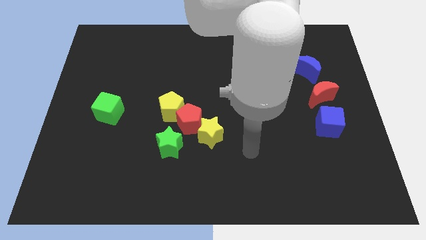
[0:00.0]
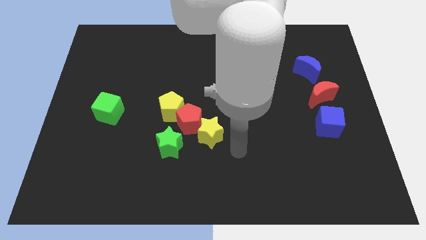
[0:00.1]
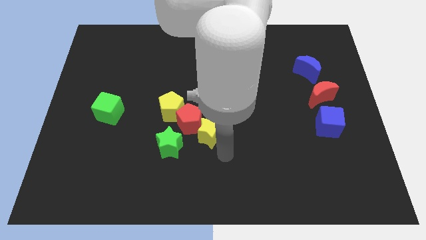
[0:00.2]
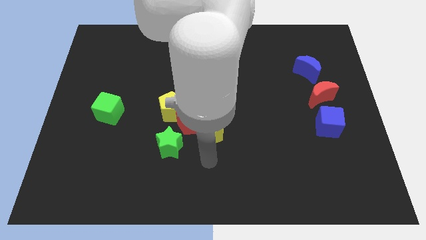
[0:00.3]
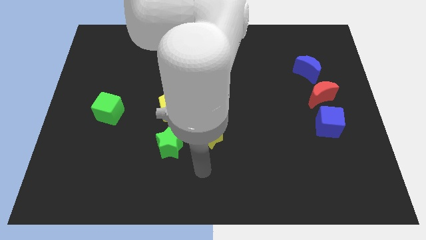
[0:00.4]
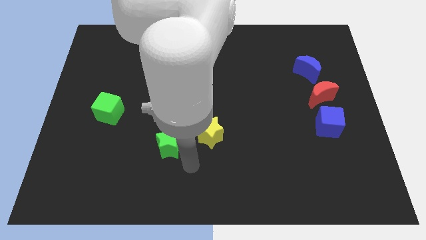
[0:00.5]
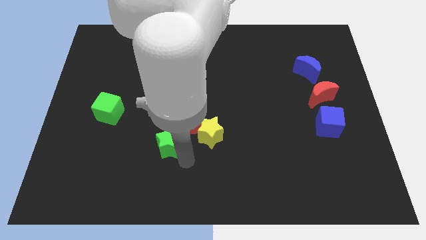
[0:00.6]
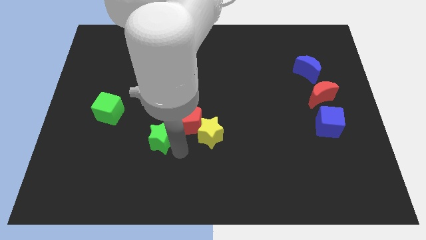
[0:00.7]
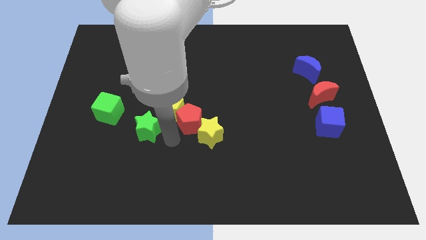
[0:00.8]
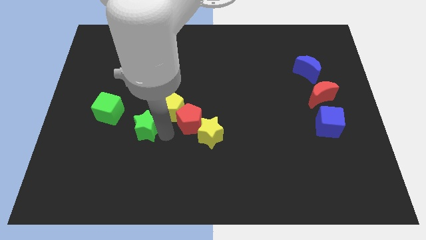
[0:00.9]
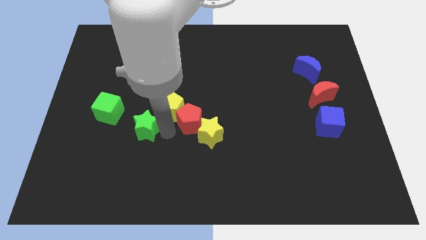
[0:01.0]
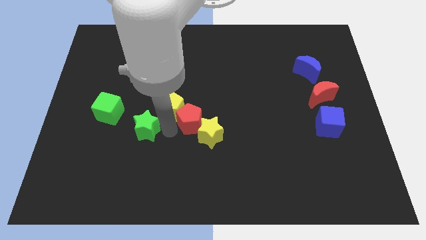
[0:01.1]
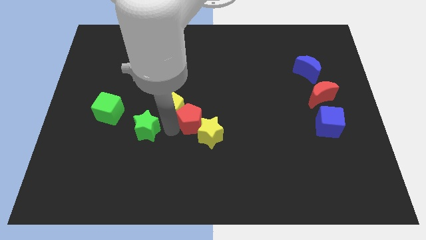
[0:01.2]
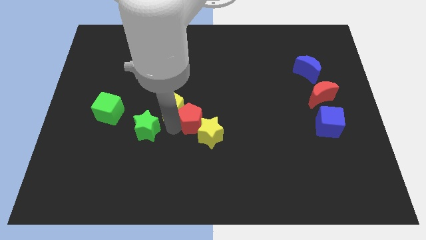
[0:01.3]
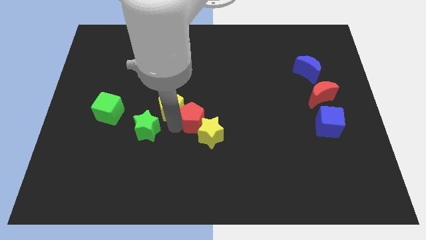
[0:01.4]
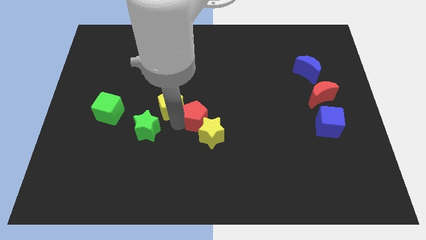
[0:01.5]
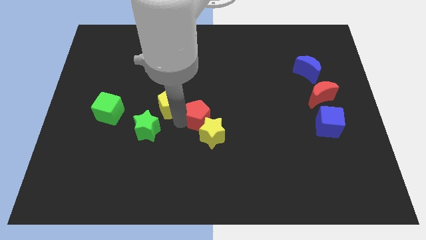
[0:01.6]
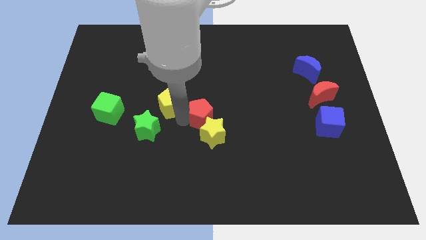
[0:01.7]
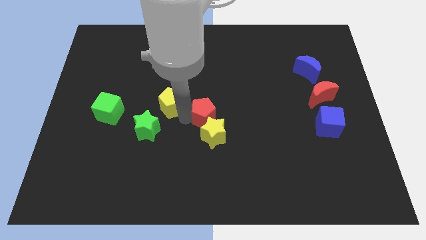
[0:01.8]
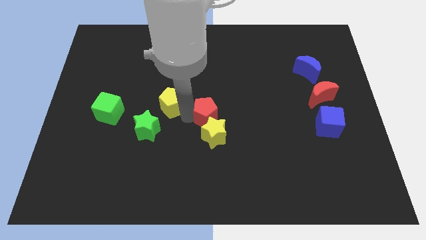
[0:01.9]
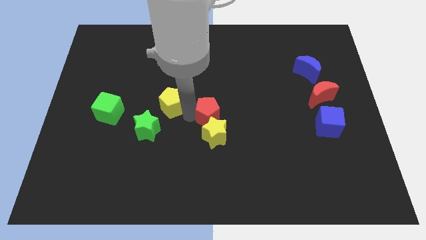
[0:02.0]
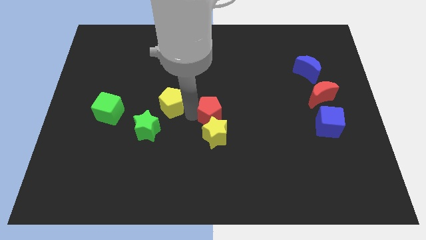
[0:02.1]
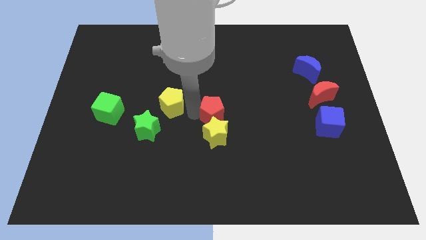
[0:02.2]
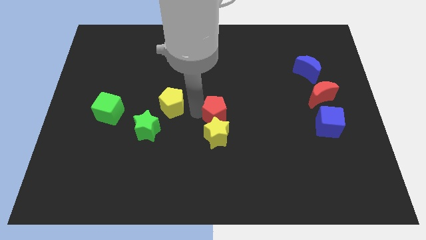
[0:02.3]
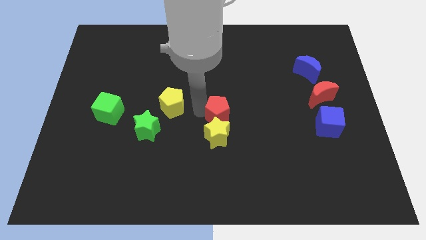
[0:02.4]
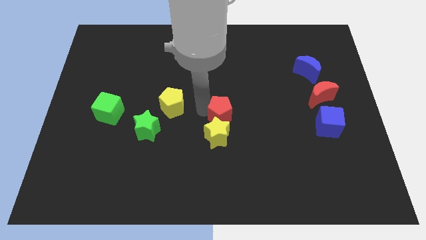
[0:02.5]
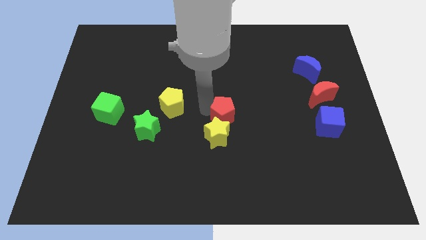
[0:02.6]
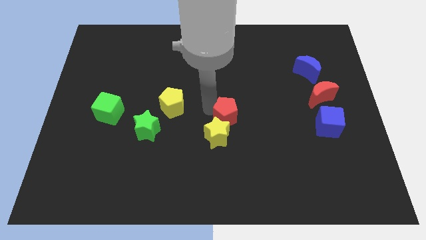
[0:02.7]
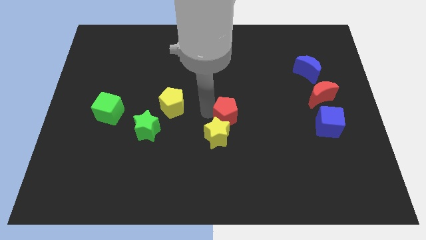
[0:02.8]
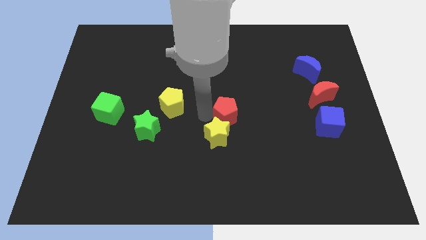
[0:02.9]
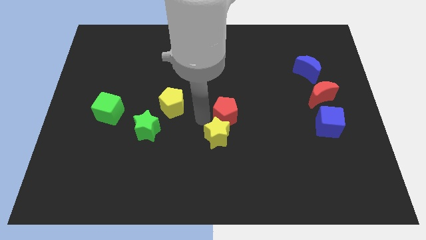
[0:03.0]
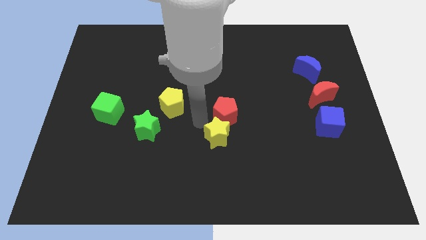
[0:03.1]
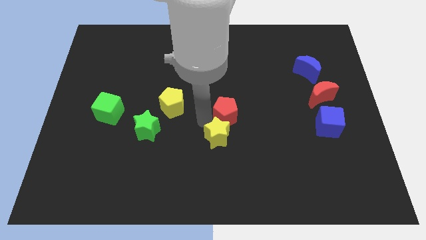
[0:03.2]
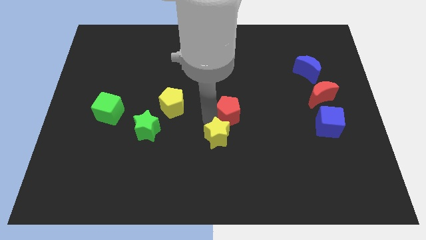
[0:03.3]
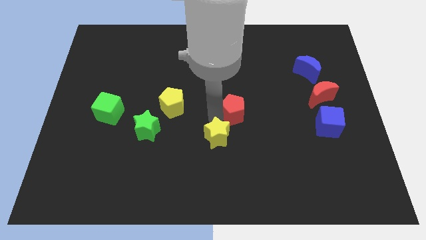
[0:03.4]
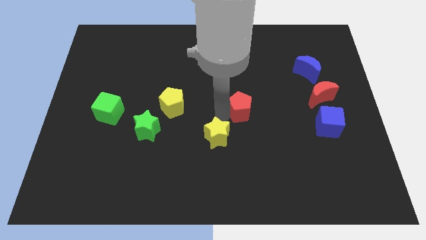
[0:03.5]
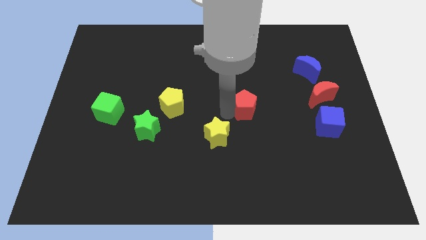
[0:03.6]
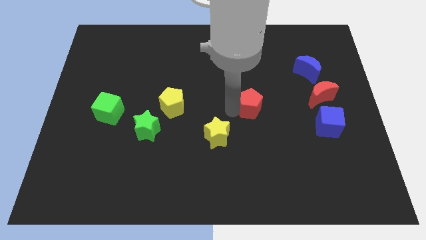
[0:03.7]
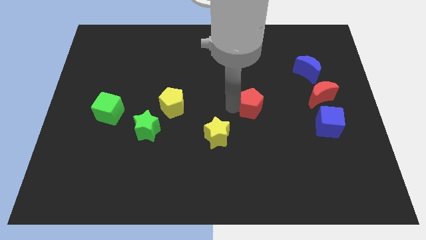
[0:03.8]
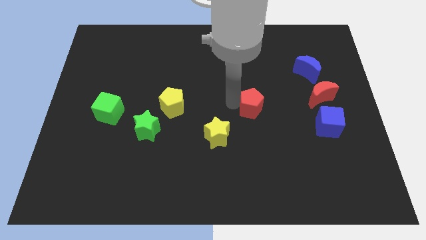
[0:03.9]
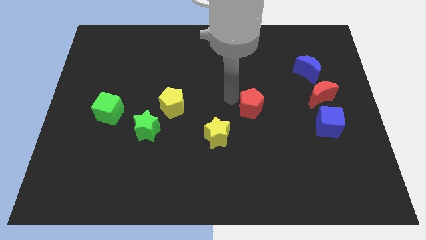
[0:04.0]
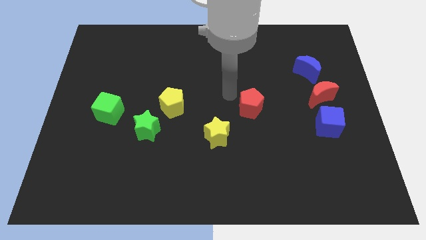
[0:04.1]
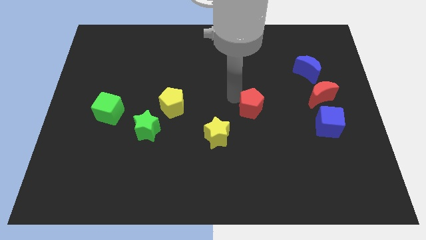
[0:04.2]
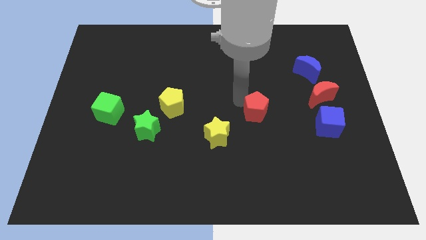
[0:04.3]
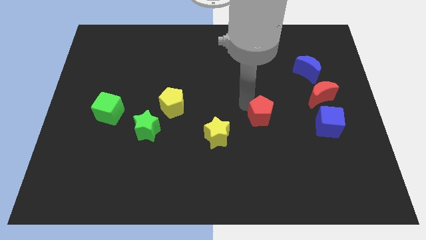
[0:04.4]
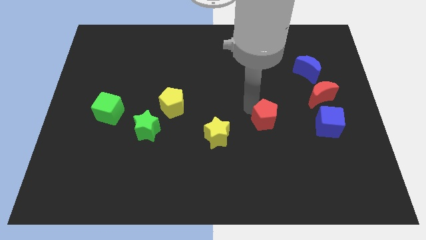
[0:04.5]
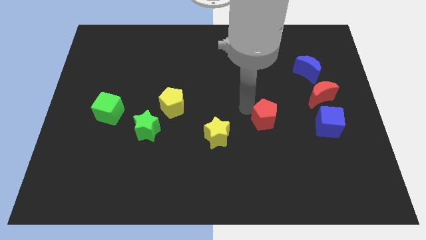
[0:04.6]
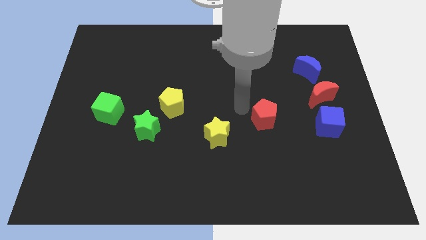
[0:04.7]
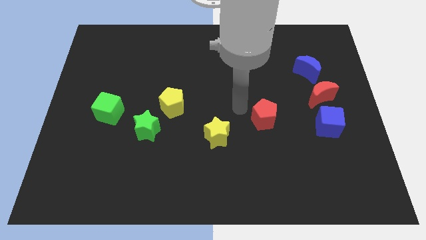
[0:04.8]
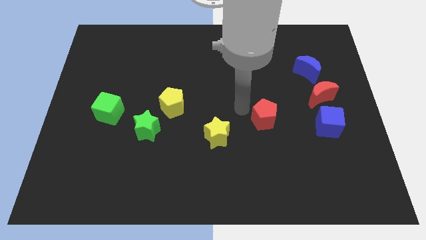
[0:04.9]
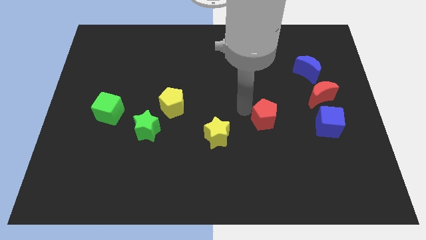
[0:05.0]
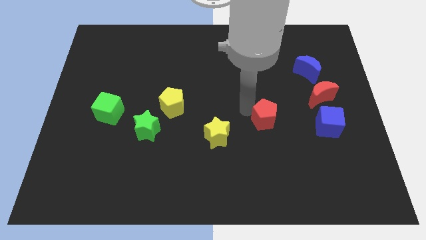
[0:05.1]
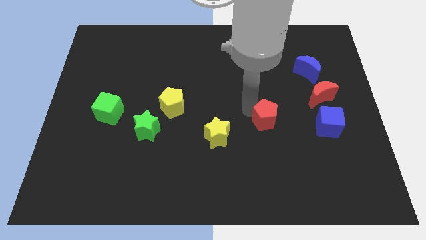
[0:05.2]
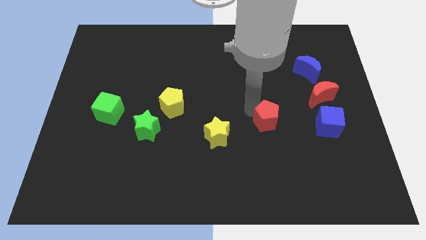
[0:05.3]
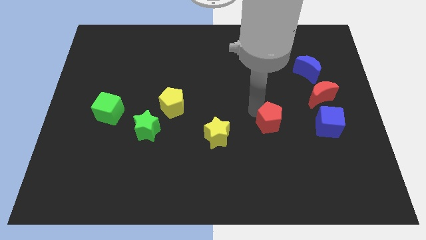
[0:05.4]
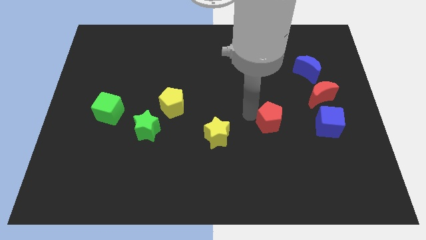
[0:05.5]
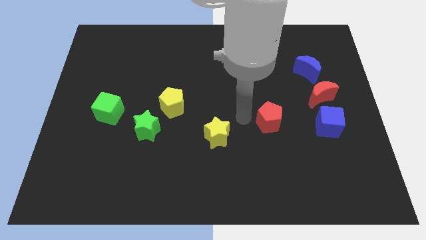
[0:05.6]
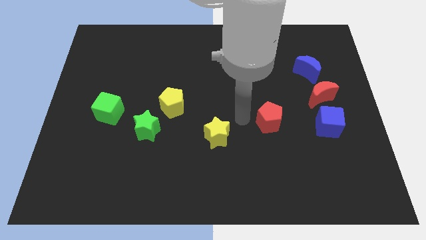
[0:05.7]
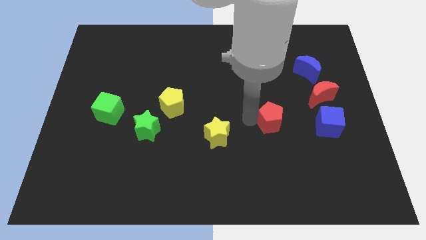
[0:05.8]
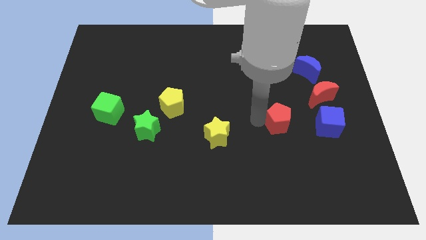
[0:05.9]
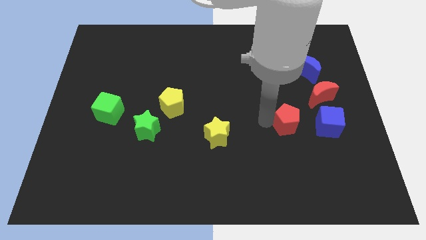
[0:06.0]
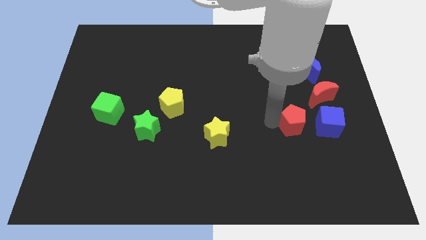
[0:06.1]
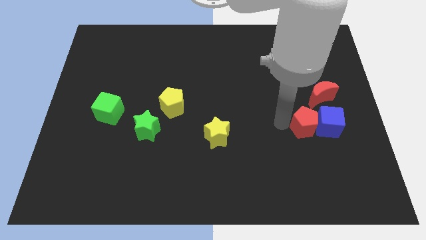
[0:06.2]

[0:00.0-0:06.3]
move the red pentagon close to the blue cube

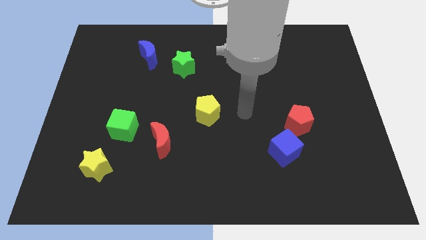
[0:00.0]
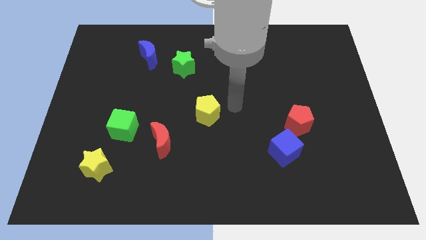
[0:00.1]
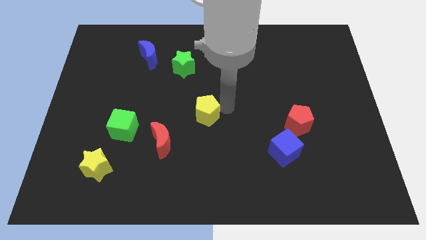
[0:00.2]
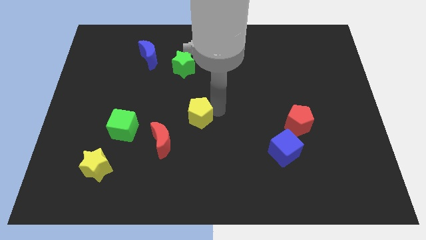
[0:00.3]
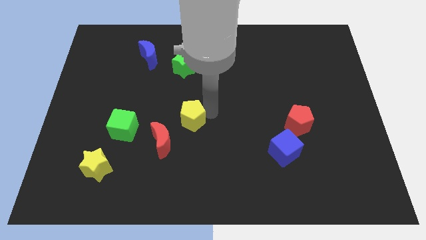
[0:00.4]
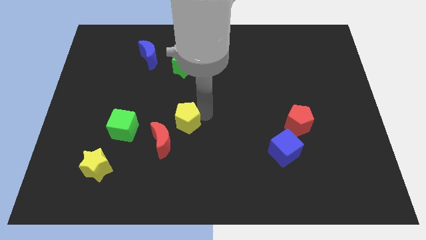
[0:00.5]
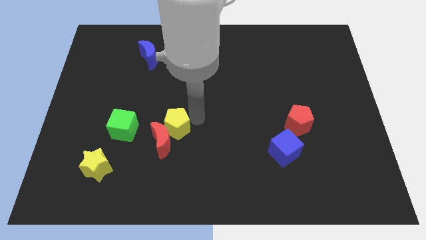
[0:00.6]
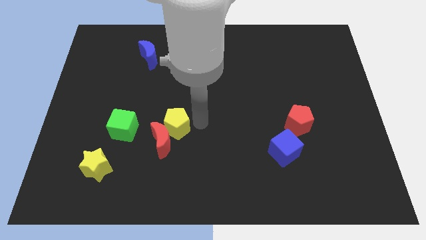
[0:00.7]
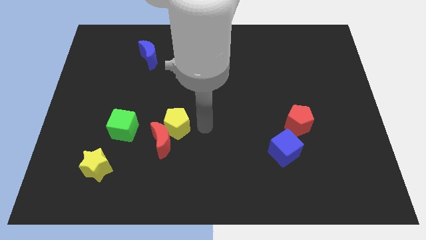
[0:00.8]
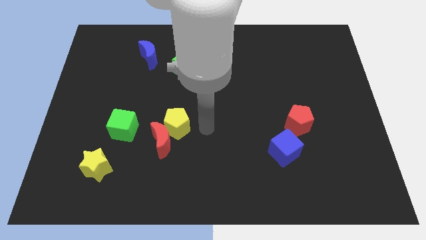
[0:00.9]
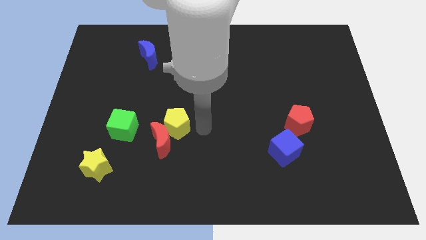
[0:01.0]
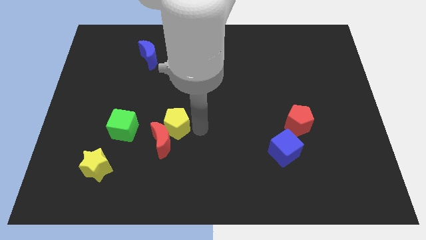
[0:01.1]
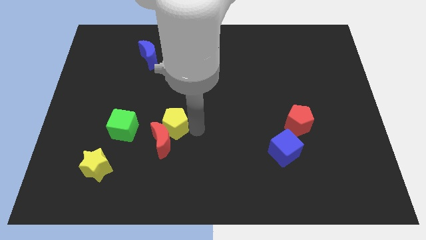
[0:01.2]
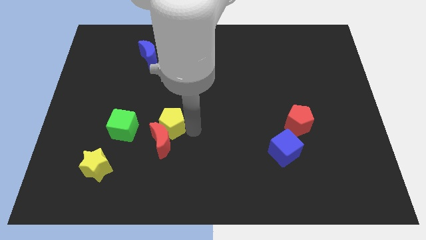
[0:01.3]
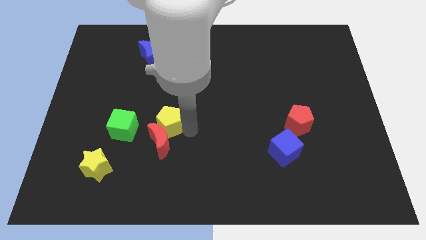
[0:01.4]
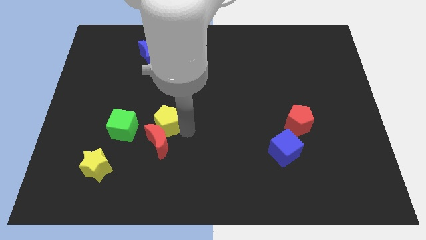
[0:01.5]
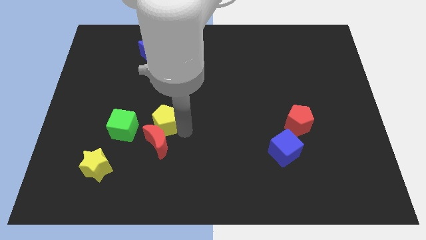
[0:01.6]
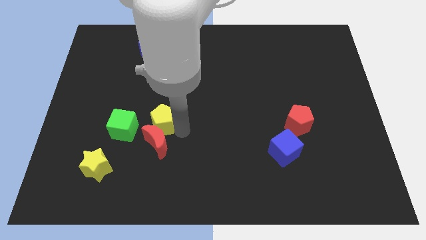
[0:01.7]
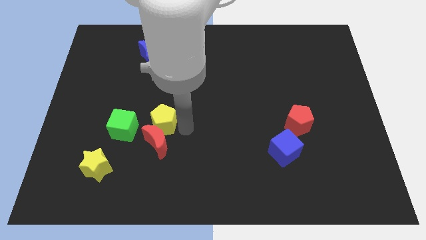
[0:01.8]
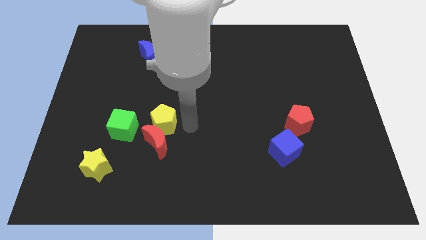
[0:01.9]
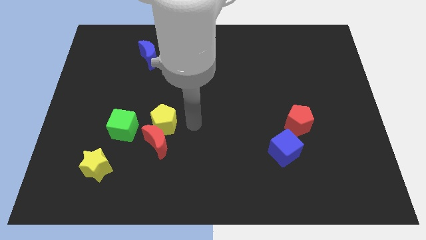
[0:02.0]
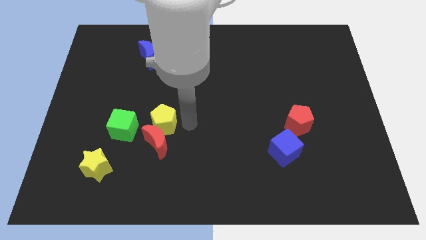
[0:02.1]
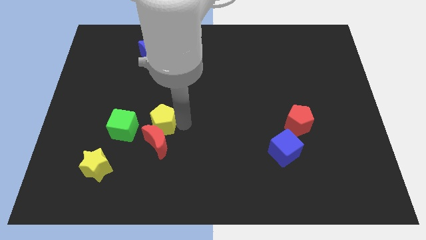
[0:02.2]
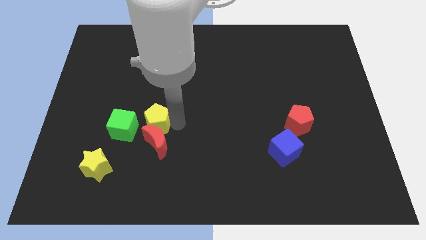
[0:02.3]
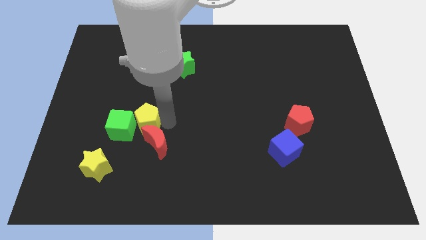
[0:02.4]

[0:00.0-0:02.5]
push the yellow pentagon next to the green cube
